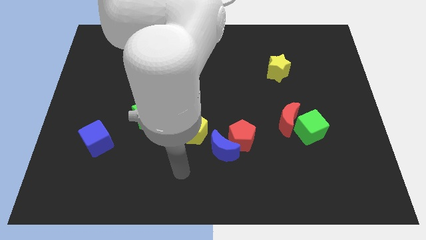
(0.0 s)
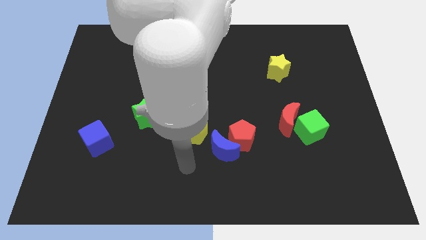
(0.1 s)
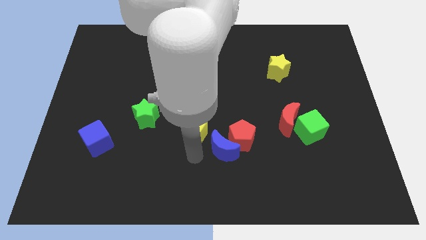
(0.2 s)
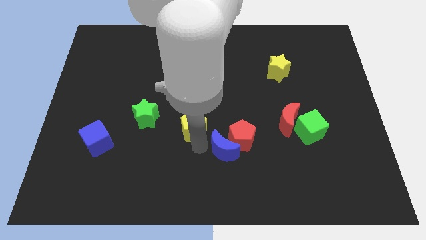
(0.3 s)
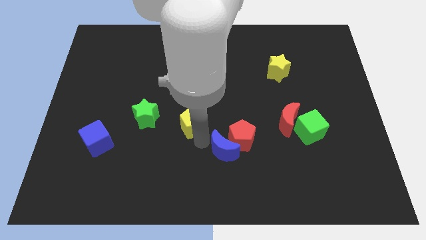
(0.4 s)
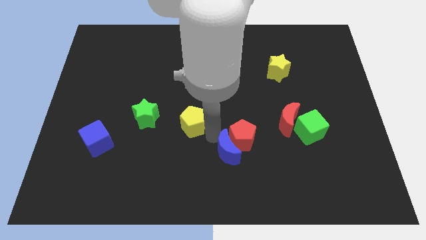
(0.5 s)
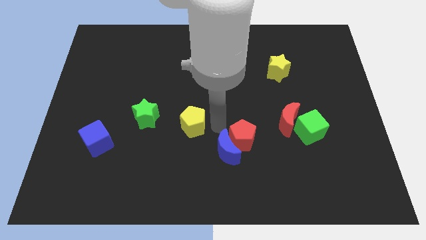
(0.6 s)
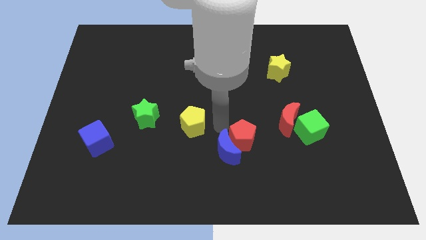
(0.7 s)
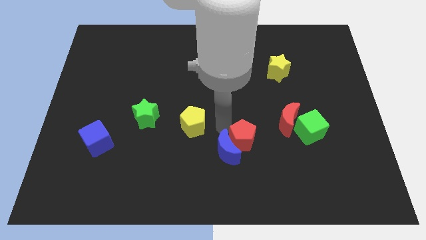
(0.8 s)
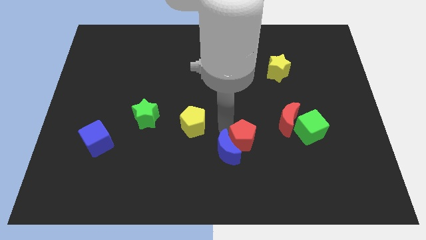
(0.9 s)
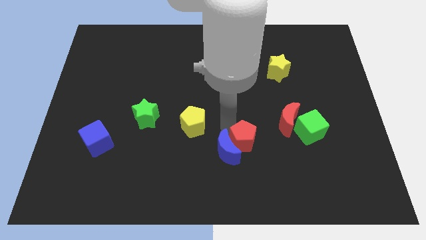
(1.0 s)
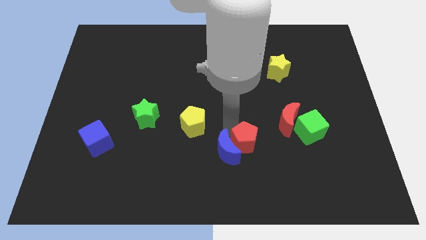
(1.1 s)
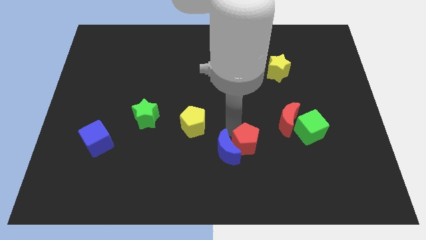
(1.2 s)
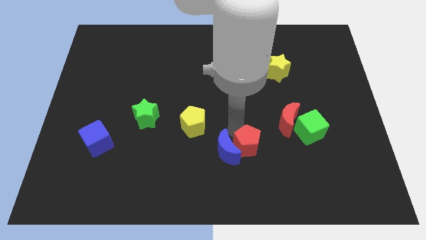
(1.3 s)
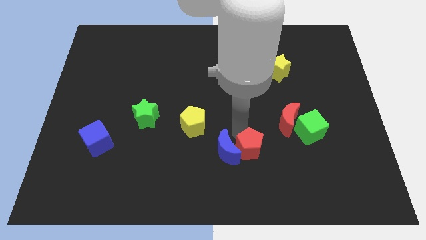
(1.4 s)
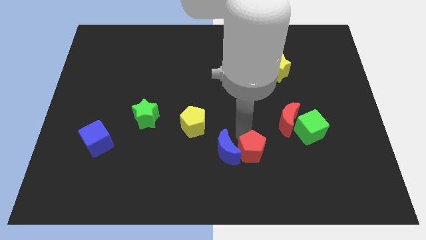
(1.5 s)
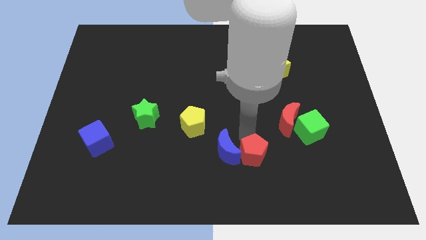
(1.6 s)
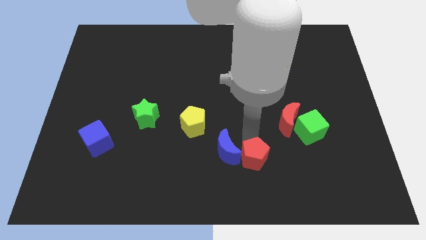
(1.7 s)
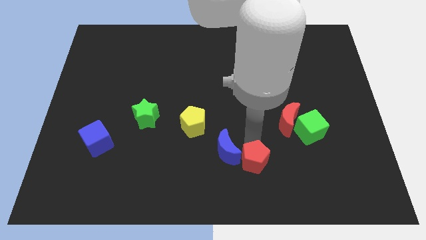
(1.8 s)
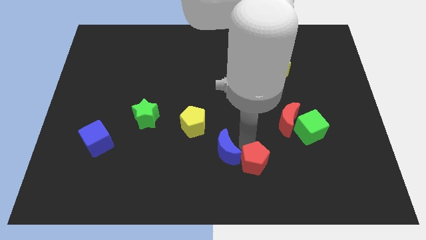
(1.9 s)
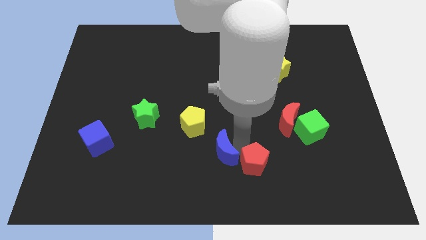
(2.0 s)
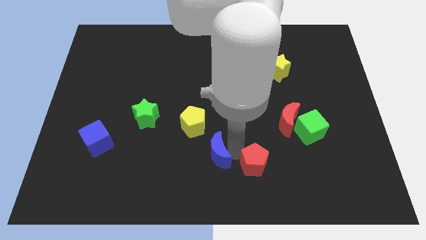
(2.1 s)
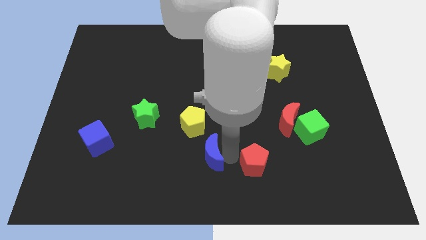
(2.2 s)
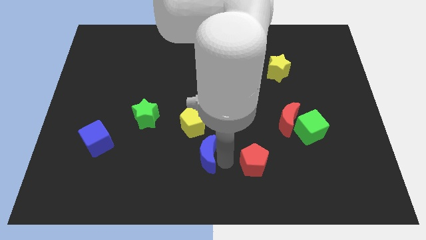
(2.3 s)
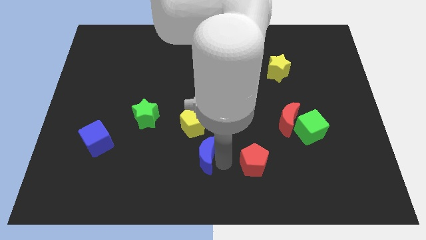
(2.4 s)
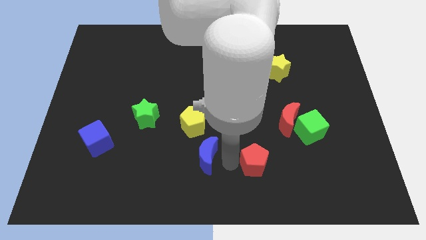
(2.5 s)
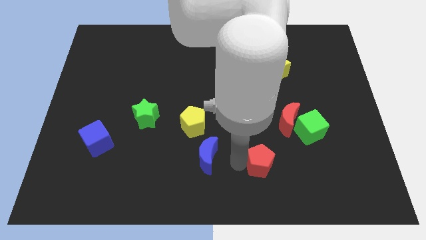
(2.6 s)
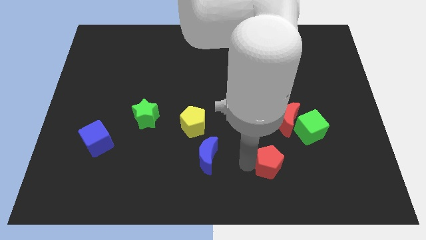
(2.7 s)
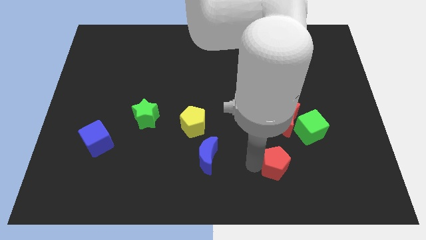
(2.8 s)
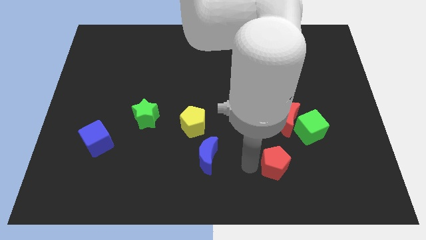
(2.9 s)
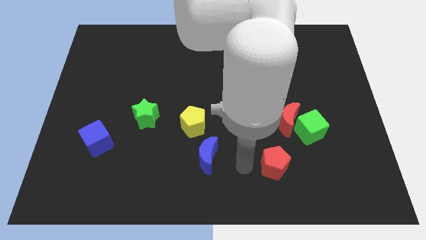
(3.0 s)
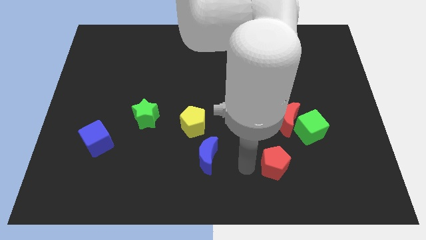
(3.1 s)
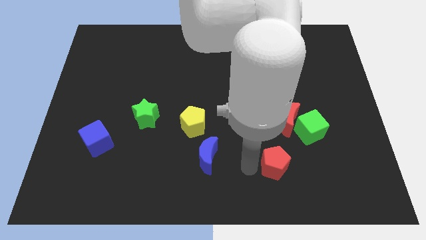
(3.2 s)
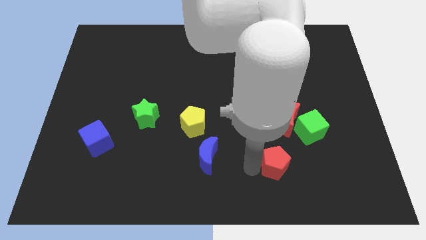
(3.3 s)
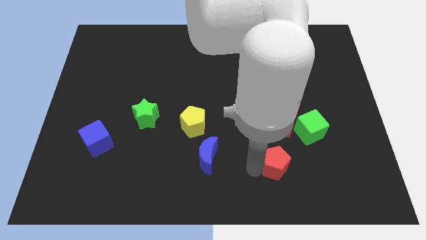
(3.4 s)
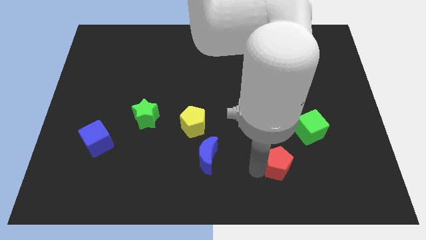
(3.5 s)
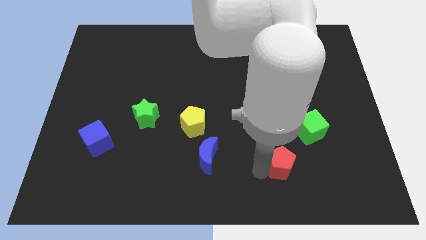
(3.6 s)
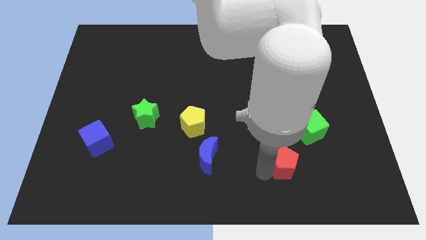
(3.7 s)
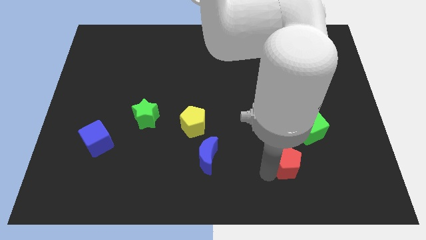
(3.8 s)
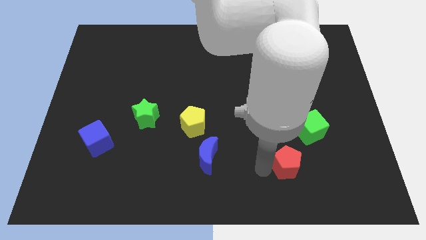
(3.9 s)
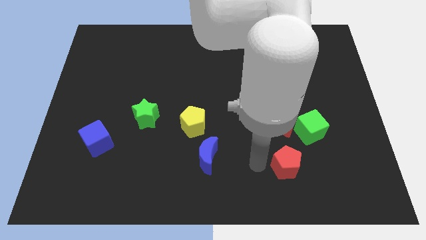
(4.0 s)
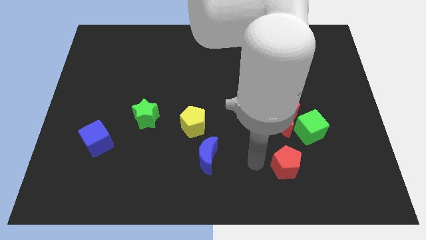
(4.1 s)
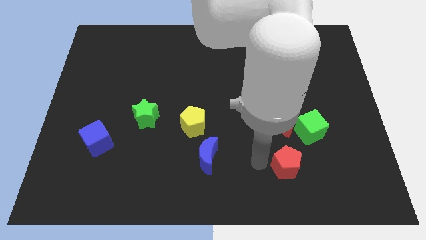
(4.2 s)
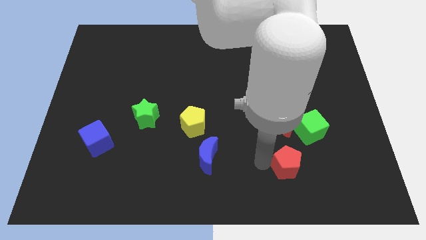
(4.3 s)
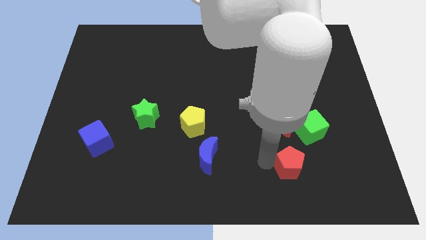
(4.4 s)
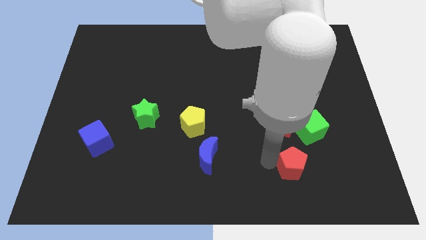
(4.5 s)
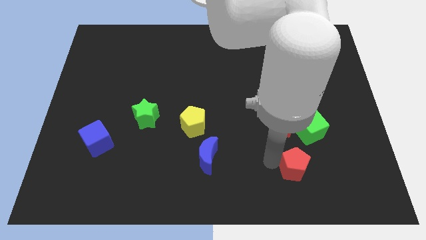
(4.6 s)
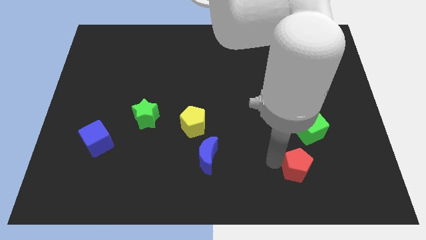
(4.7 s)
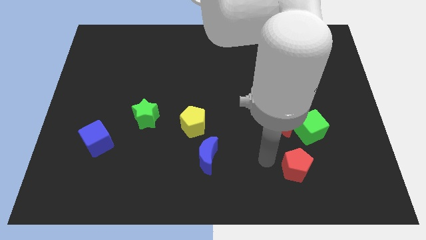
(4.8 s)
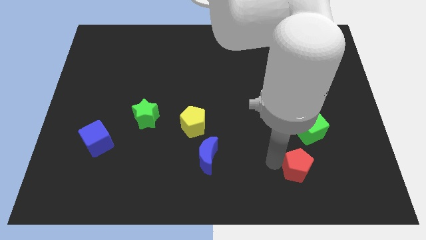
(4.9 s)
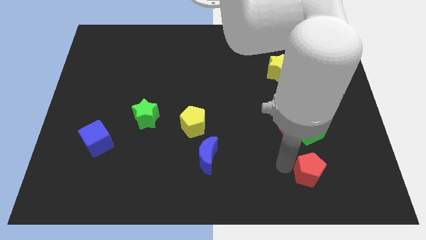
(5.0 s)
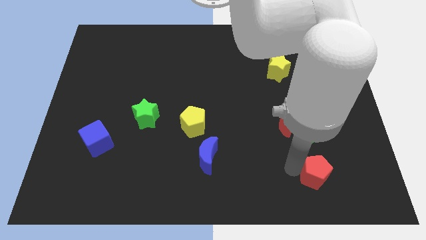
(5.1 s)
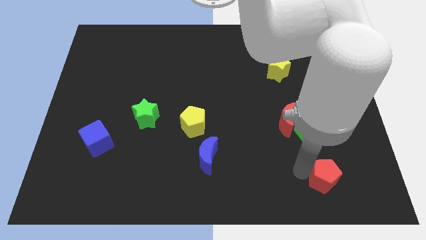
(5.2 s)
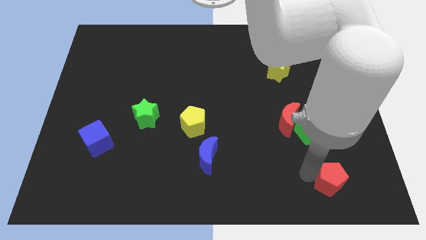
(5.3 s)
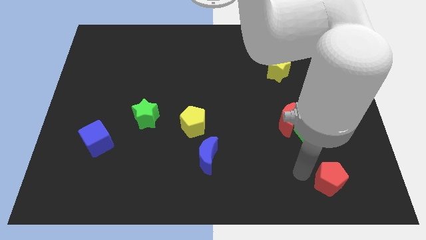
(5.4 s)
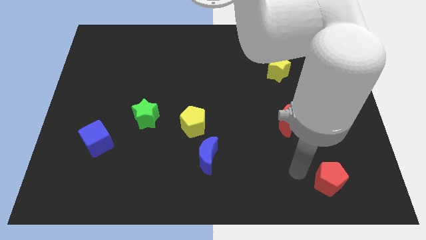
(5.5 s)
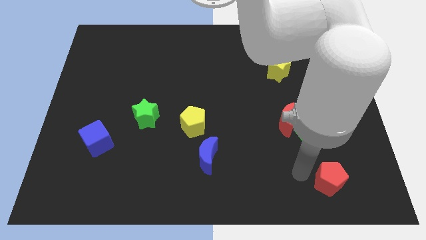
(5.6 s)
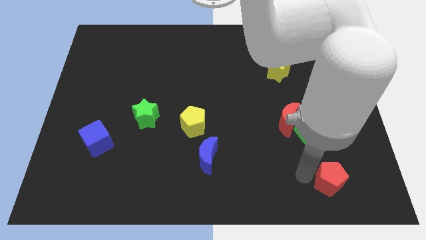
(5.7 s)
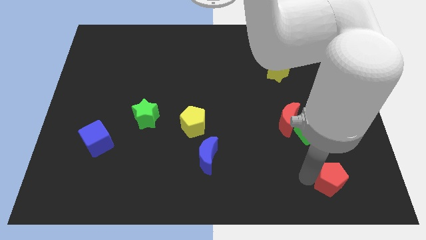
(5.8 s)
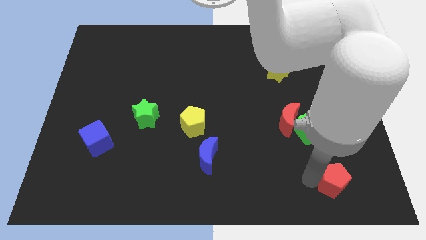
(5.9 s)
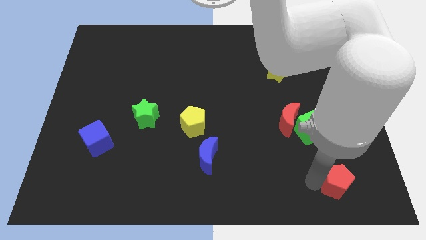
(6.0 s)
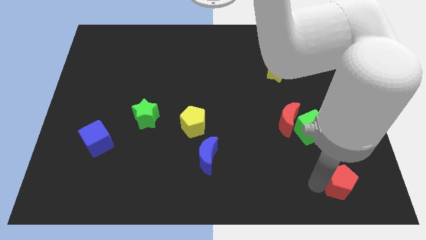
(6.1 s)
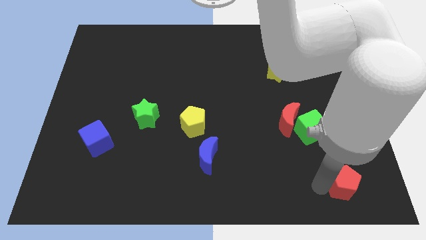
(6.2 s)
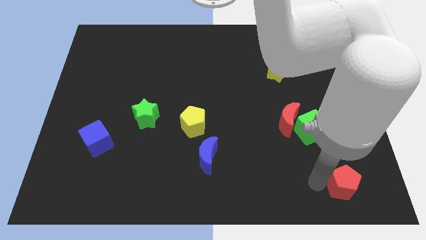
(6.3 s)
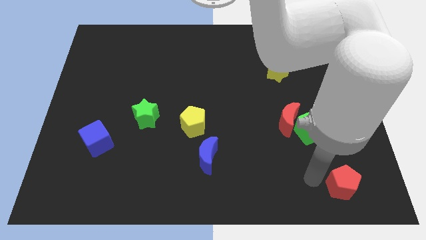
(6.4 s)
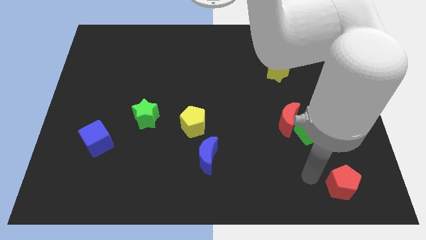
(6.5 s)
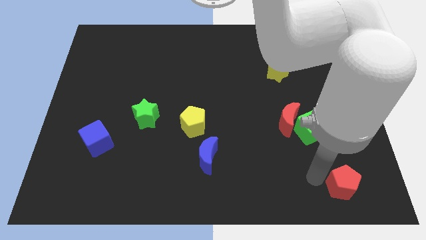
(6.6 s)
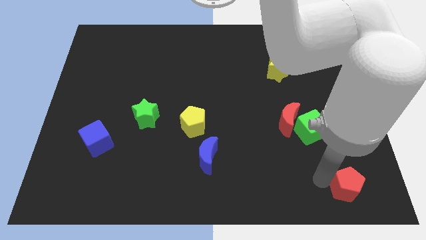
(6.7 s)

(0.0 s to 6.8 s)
push the red pentagon to the bottom right corner

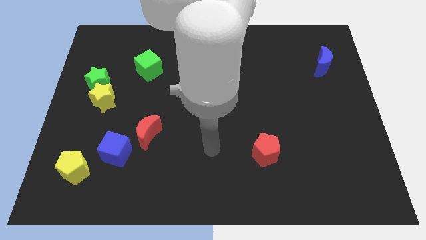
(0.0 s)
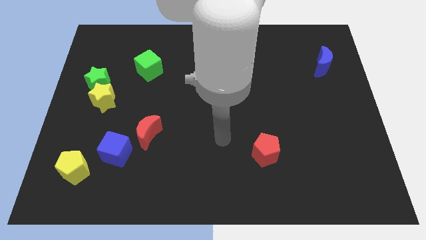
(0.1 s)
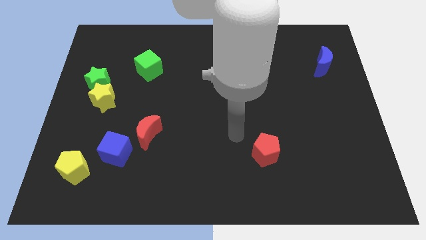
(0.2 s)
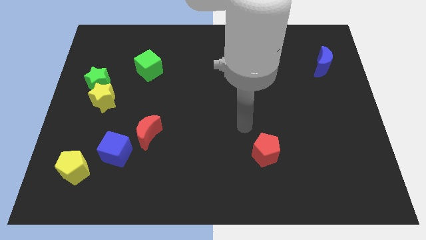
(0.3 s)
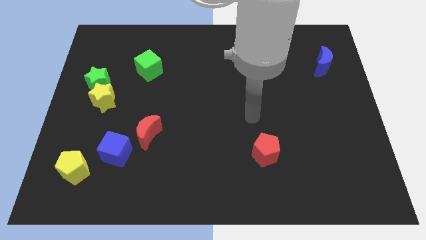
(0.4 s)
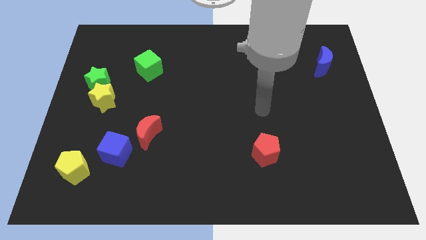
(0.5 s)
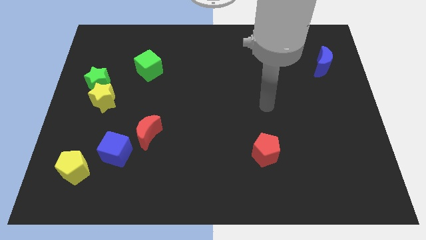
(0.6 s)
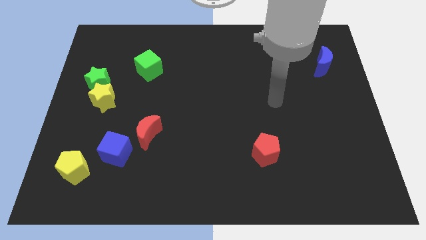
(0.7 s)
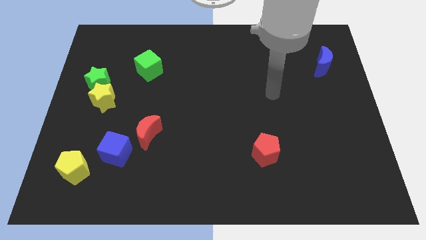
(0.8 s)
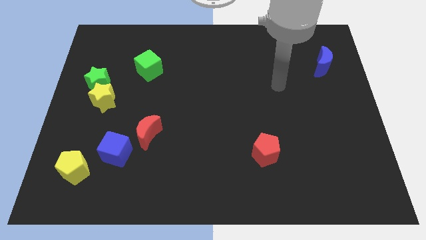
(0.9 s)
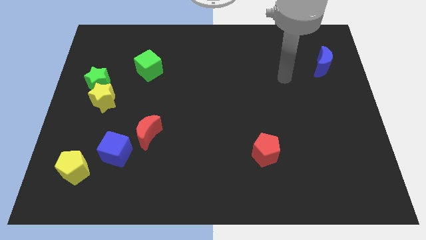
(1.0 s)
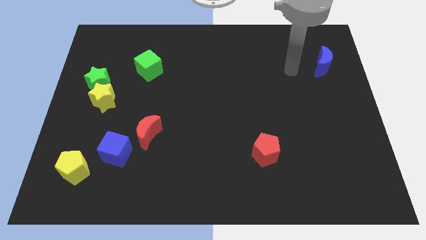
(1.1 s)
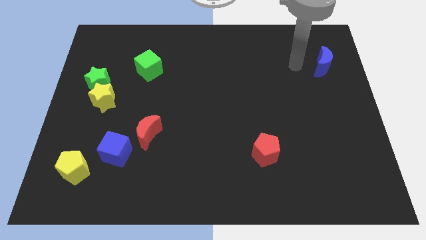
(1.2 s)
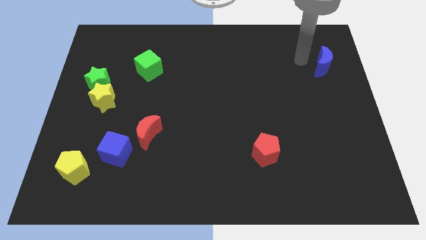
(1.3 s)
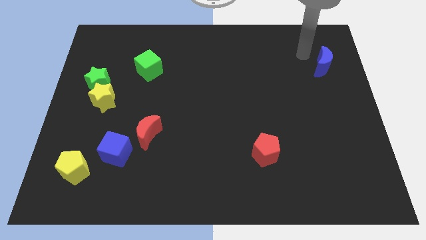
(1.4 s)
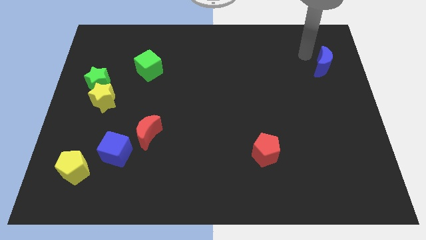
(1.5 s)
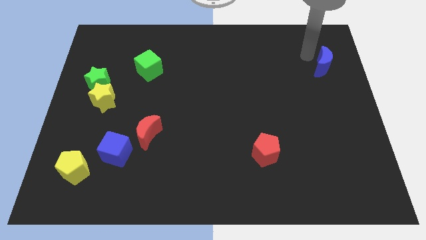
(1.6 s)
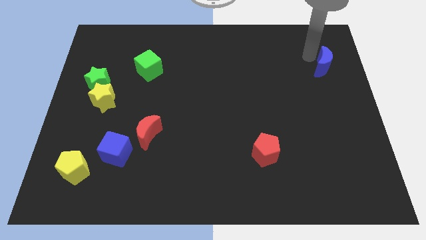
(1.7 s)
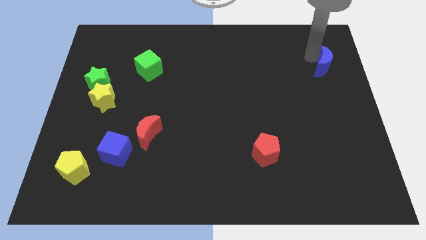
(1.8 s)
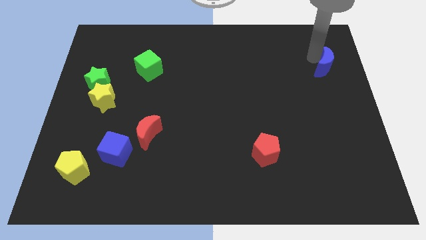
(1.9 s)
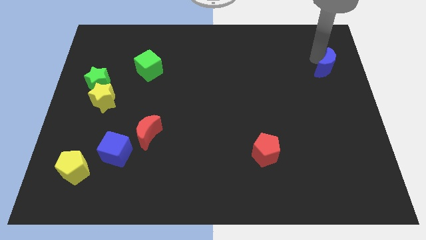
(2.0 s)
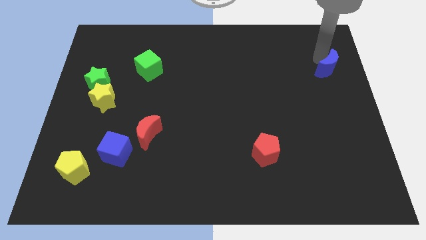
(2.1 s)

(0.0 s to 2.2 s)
put the blue moon to the right side of the board
